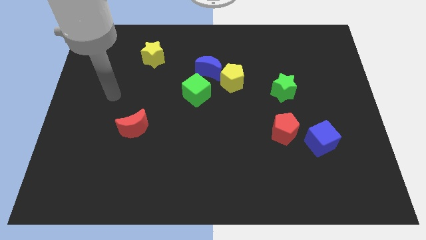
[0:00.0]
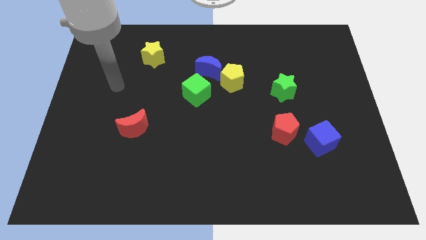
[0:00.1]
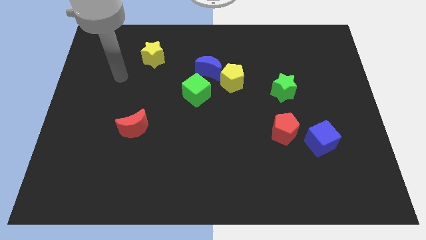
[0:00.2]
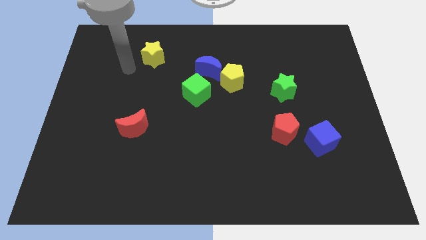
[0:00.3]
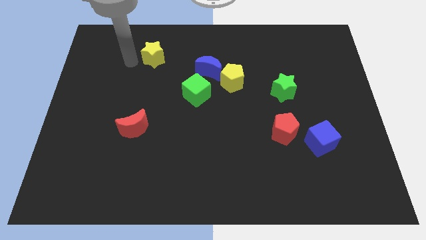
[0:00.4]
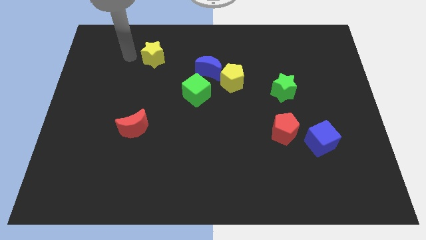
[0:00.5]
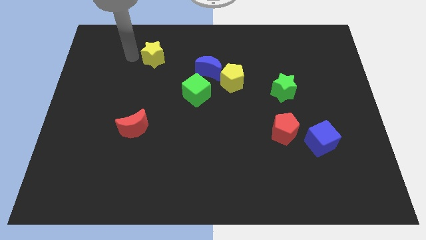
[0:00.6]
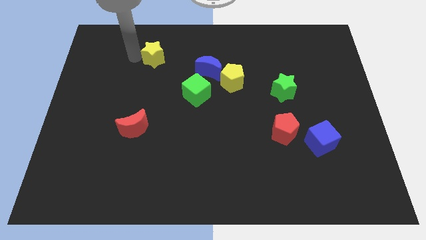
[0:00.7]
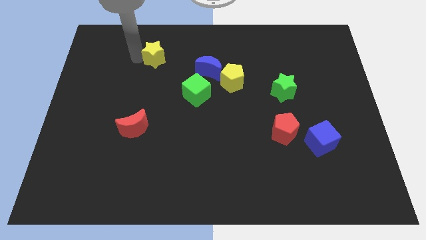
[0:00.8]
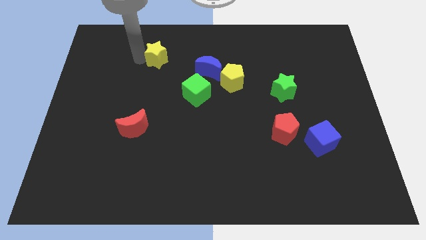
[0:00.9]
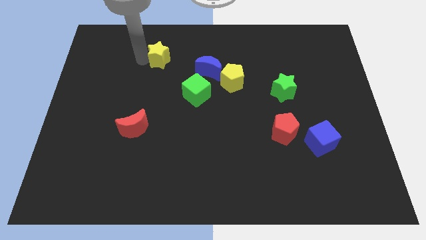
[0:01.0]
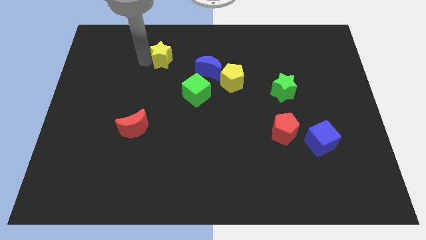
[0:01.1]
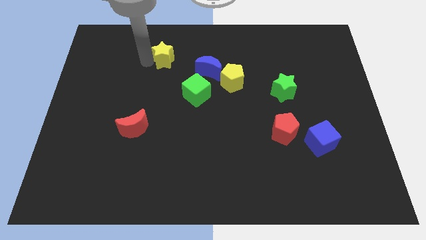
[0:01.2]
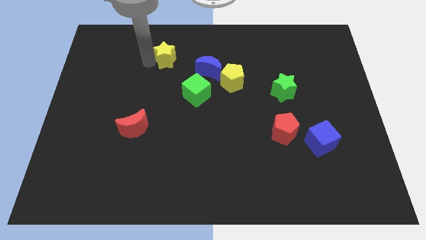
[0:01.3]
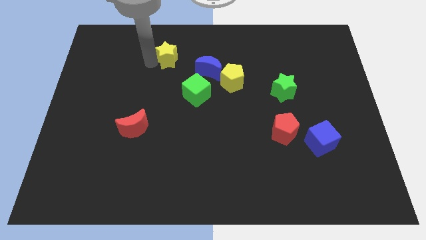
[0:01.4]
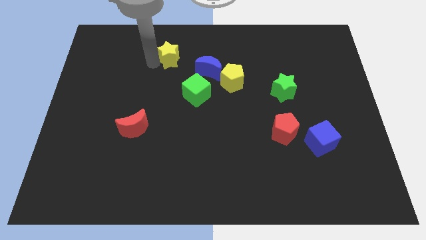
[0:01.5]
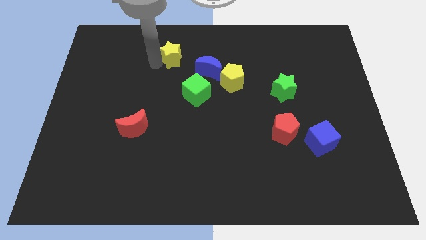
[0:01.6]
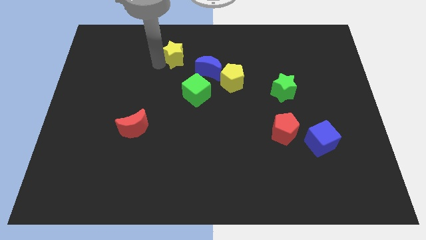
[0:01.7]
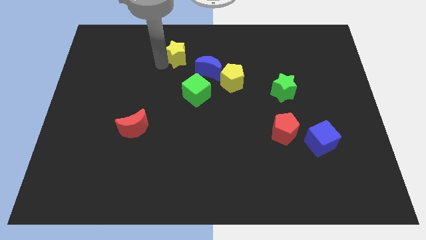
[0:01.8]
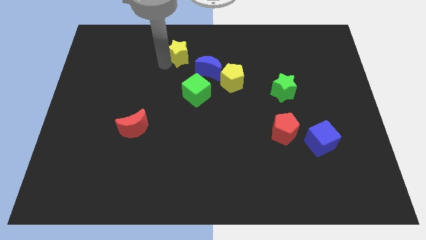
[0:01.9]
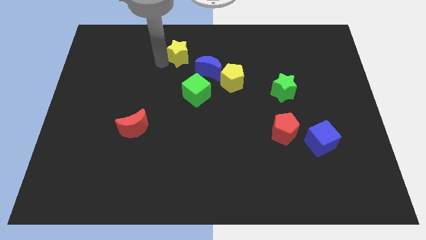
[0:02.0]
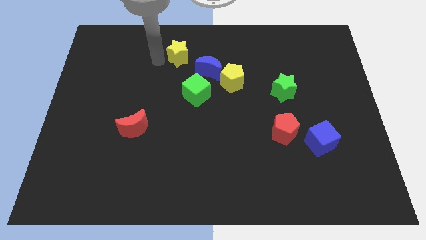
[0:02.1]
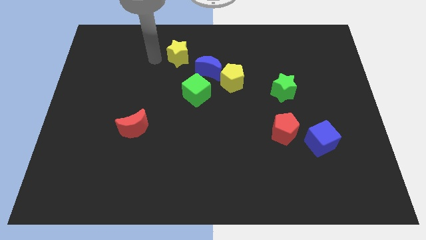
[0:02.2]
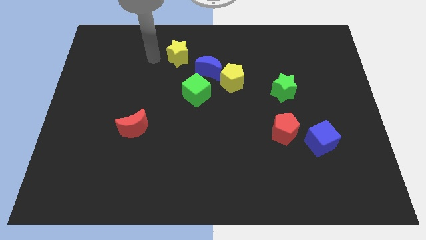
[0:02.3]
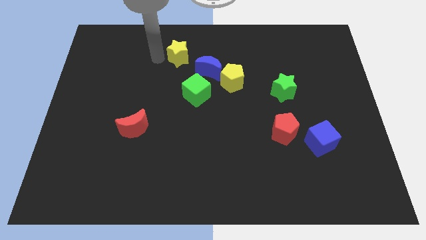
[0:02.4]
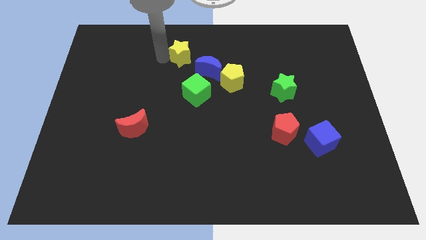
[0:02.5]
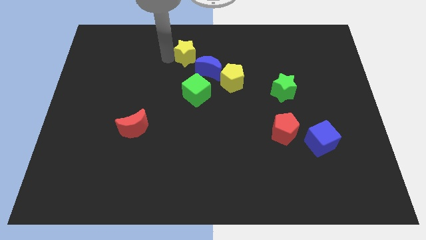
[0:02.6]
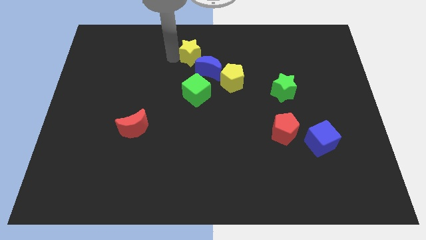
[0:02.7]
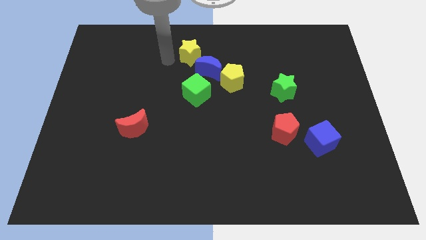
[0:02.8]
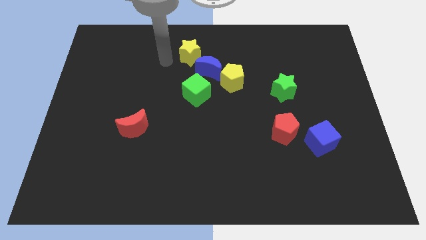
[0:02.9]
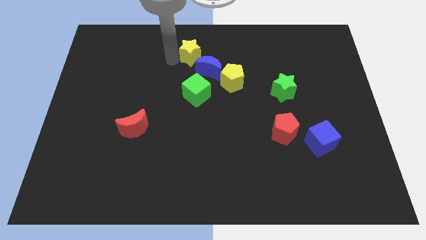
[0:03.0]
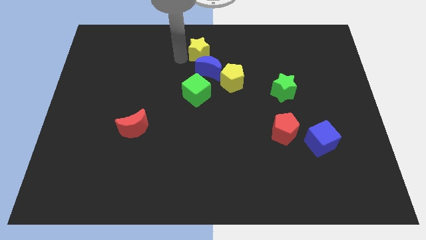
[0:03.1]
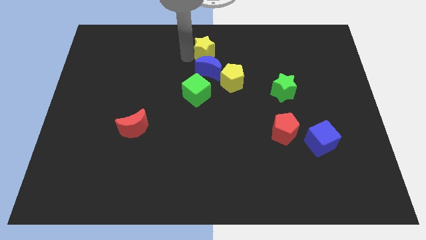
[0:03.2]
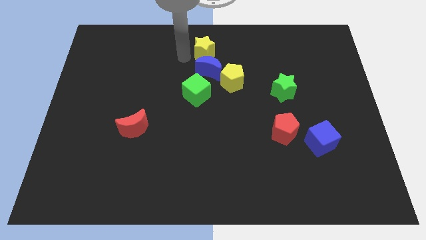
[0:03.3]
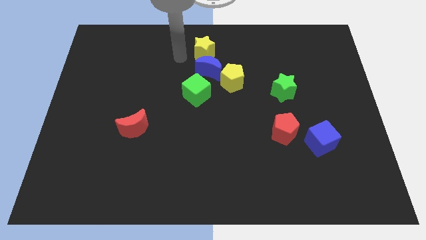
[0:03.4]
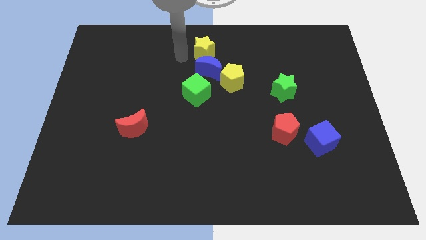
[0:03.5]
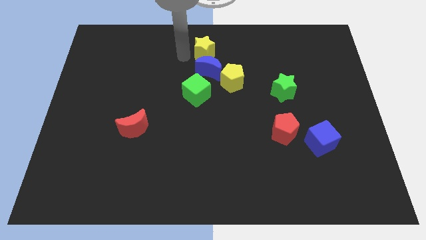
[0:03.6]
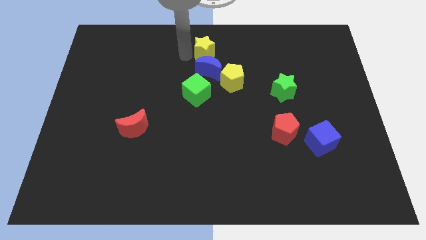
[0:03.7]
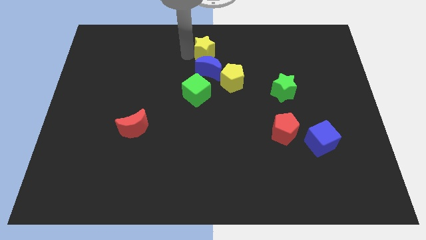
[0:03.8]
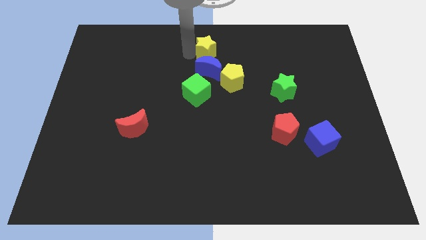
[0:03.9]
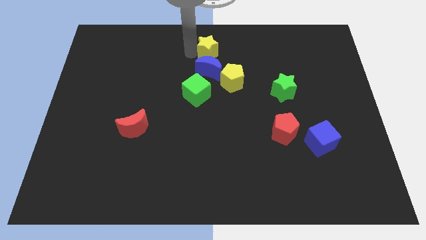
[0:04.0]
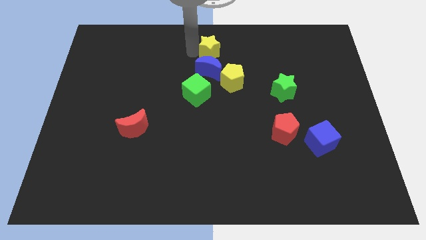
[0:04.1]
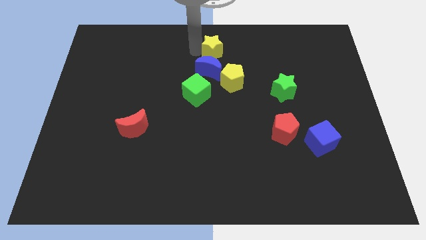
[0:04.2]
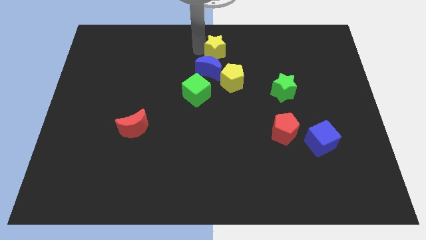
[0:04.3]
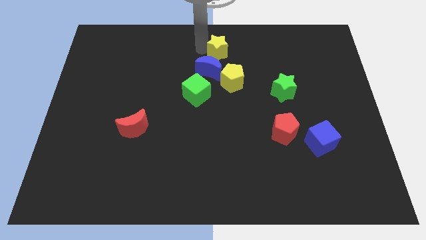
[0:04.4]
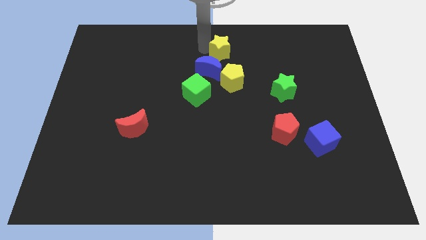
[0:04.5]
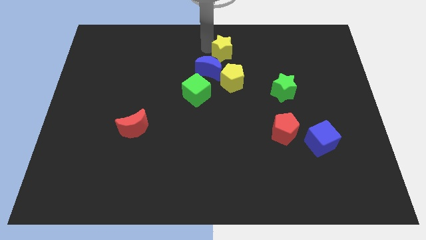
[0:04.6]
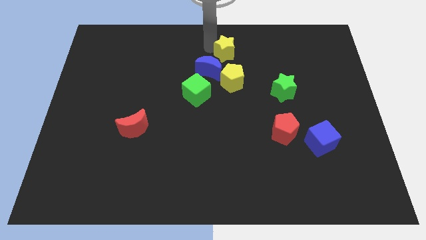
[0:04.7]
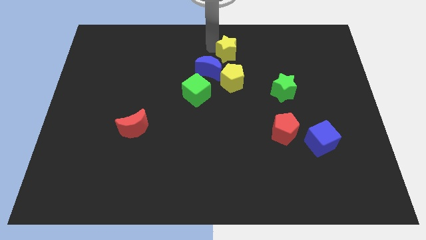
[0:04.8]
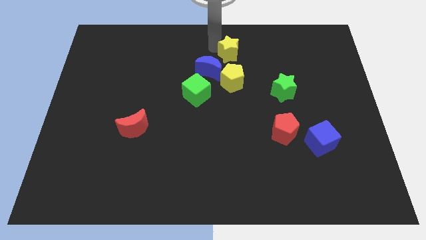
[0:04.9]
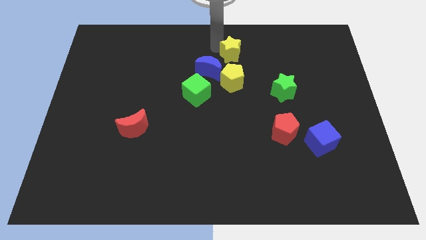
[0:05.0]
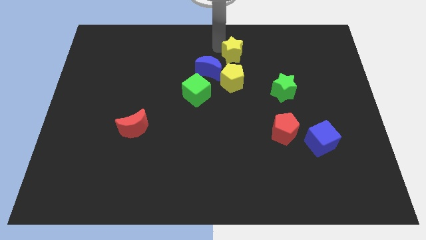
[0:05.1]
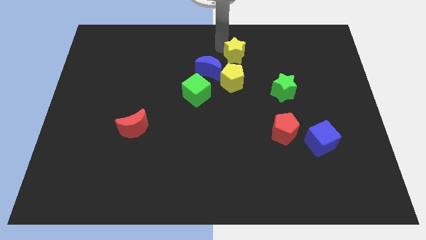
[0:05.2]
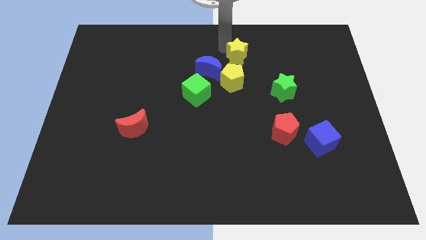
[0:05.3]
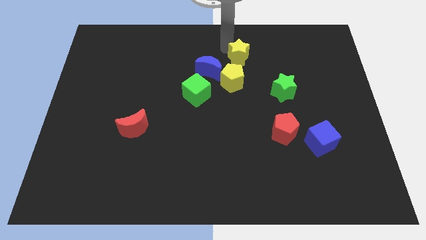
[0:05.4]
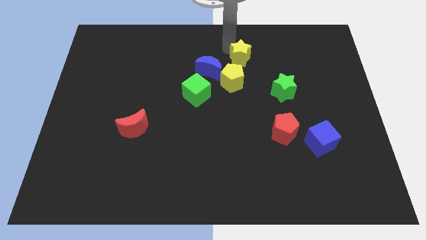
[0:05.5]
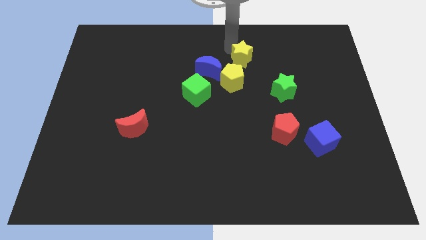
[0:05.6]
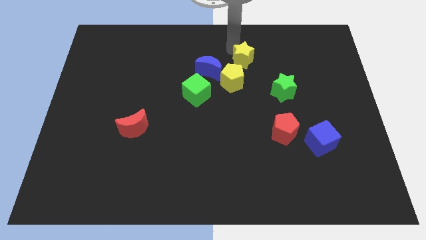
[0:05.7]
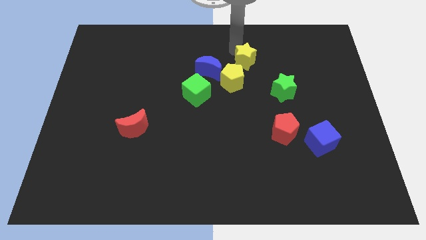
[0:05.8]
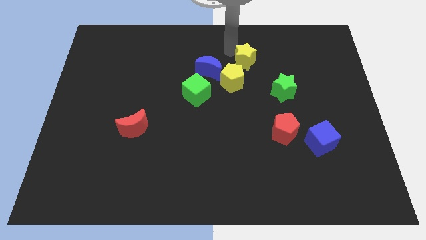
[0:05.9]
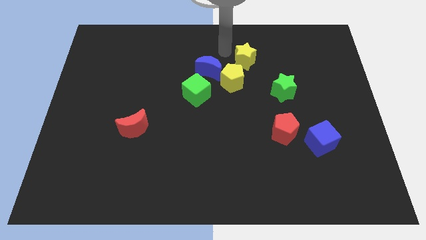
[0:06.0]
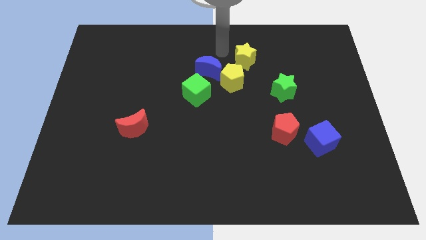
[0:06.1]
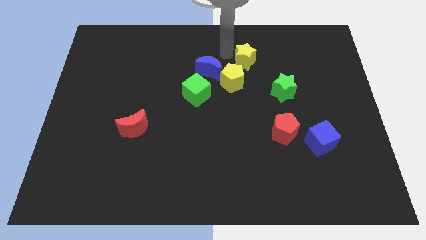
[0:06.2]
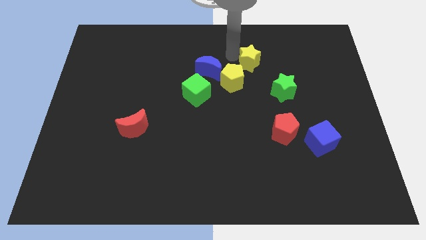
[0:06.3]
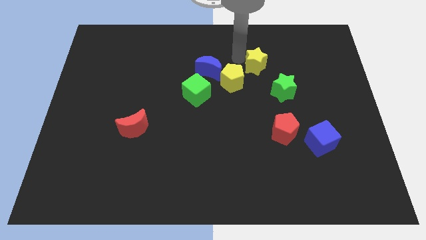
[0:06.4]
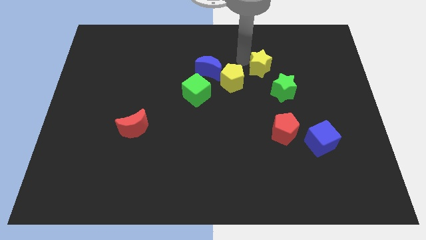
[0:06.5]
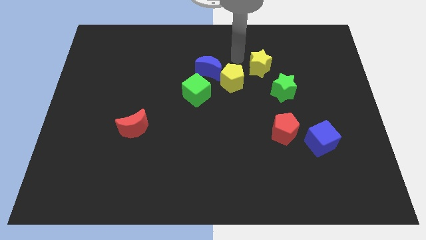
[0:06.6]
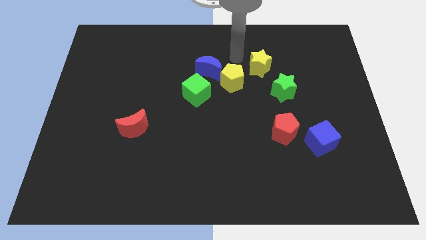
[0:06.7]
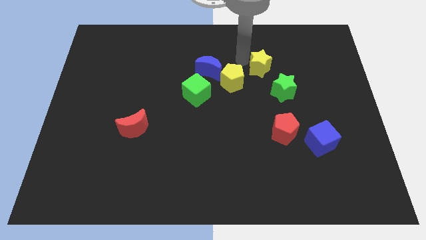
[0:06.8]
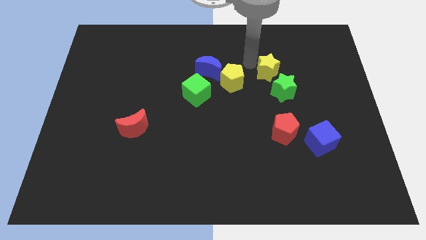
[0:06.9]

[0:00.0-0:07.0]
put the yellow star to the right of the yellow pentagon
